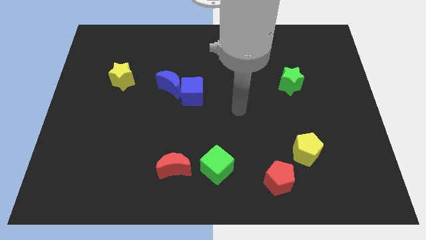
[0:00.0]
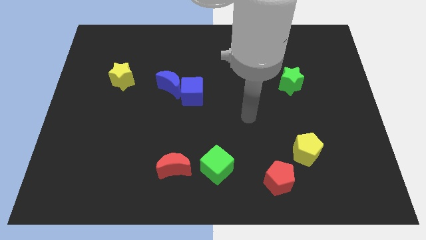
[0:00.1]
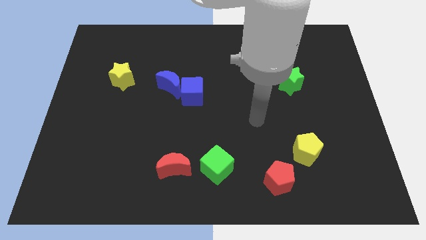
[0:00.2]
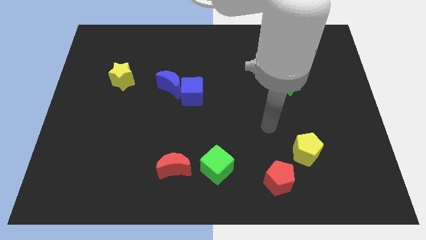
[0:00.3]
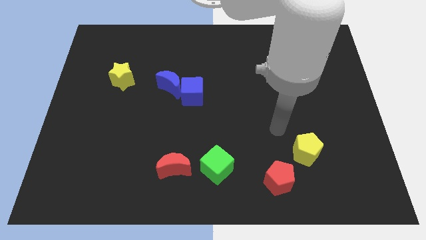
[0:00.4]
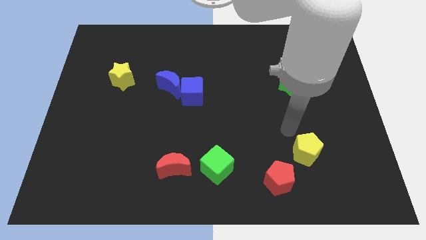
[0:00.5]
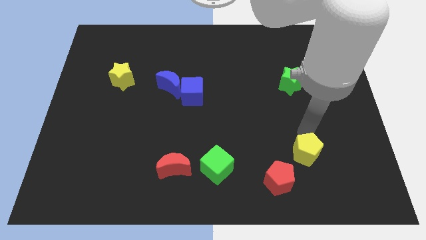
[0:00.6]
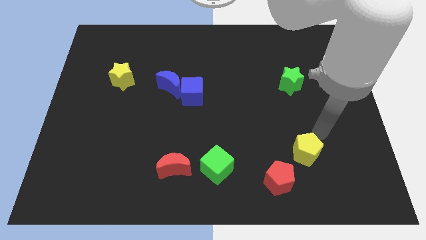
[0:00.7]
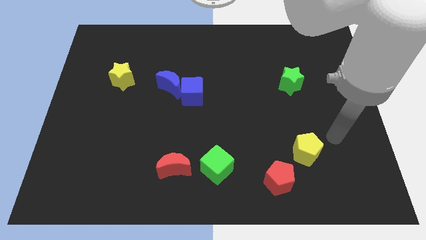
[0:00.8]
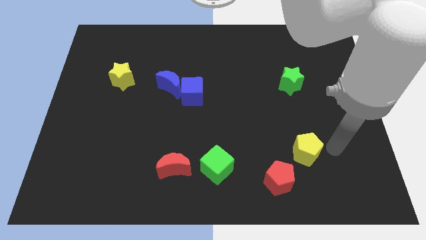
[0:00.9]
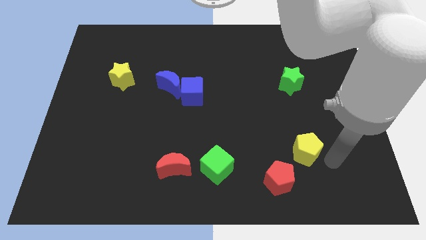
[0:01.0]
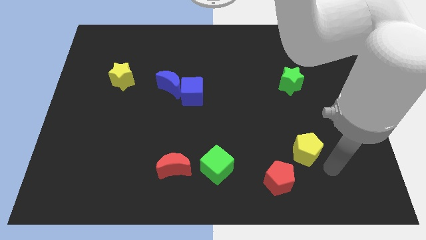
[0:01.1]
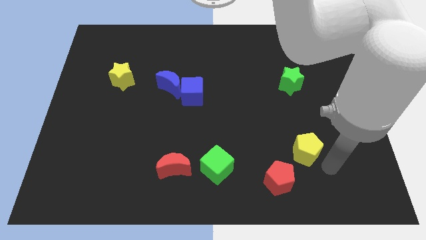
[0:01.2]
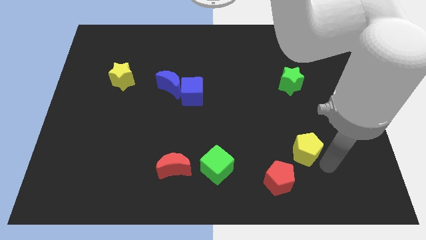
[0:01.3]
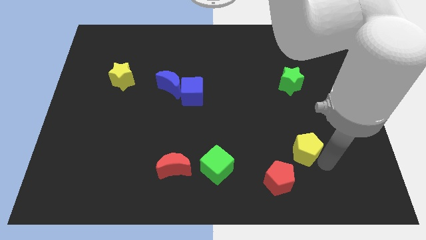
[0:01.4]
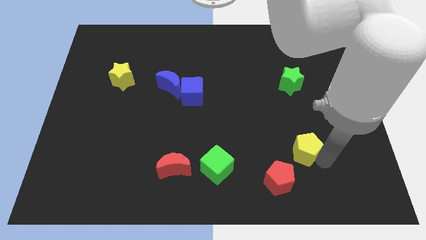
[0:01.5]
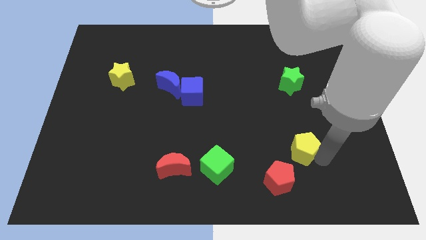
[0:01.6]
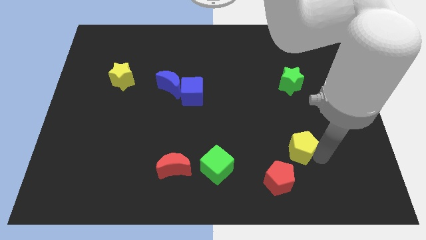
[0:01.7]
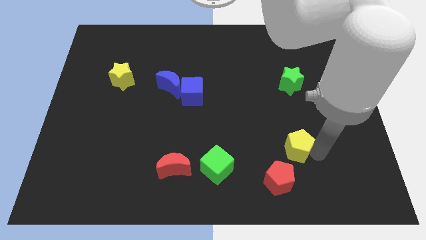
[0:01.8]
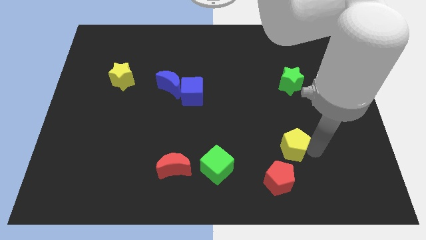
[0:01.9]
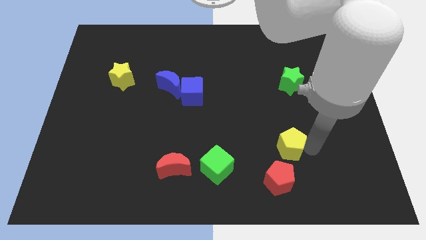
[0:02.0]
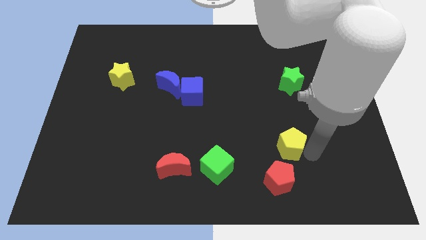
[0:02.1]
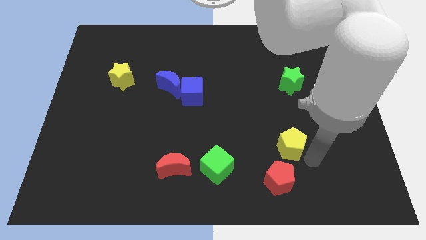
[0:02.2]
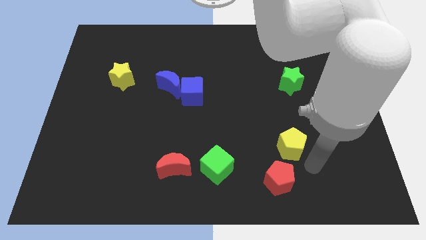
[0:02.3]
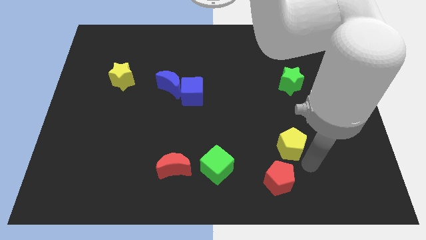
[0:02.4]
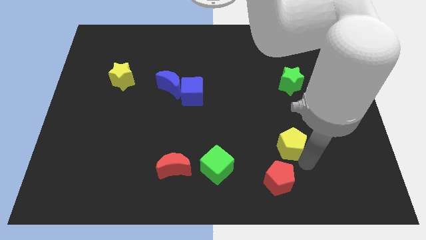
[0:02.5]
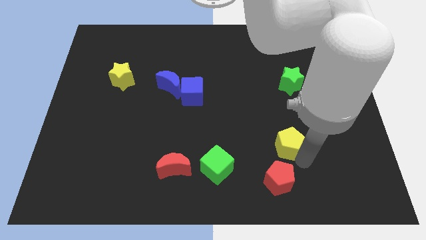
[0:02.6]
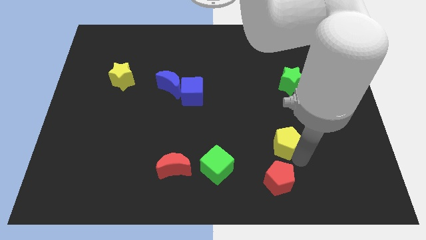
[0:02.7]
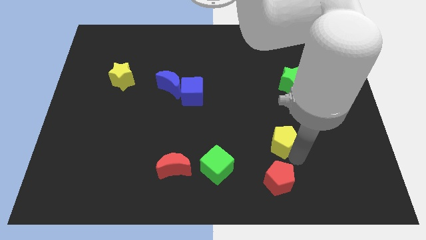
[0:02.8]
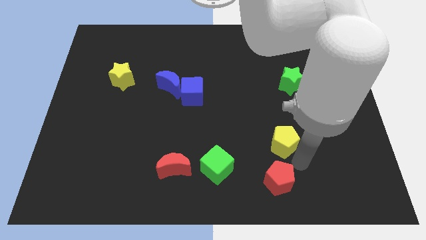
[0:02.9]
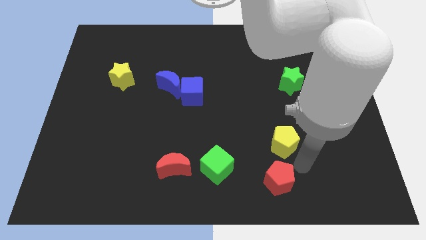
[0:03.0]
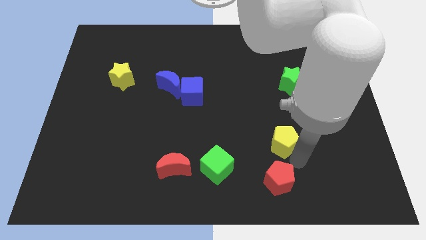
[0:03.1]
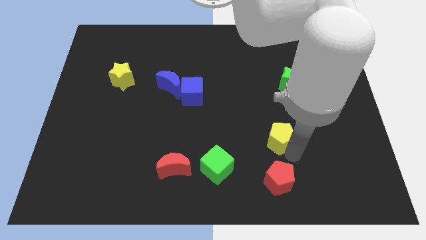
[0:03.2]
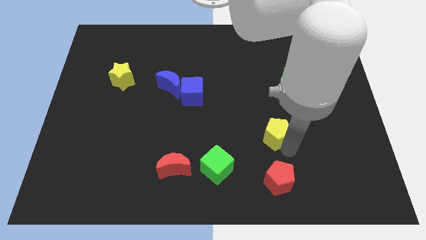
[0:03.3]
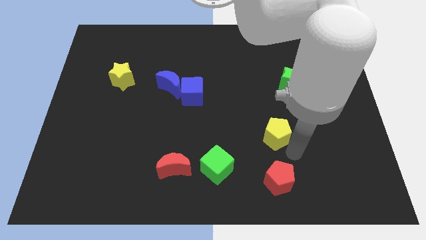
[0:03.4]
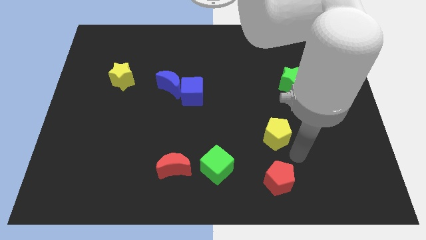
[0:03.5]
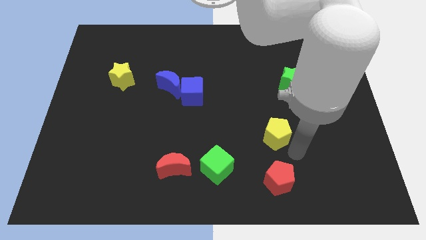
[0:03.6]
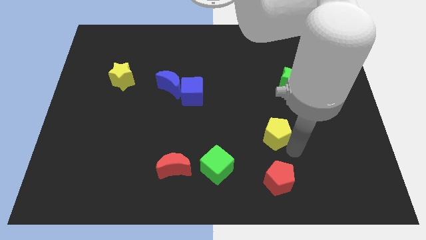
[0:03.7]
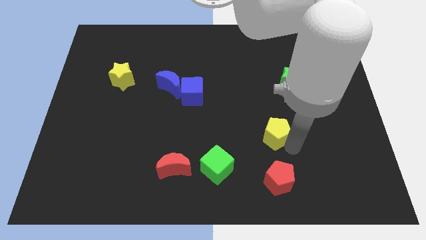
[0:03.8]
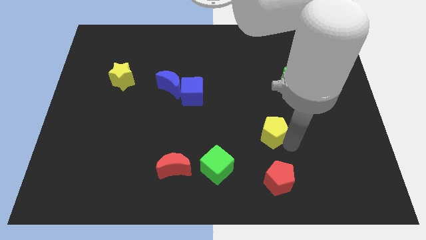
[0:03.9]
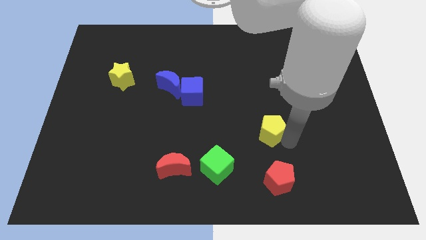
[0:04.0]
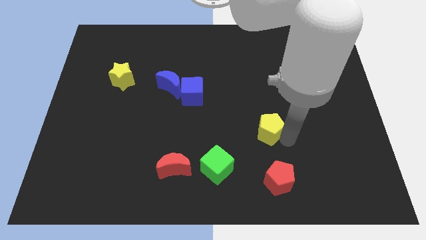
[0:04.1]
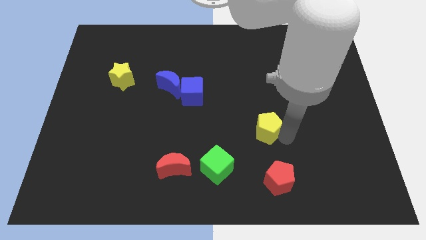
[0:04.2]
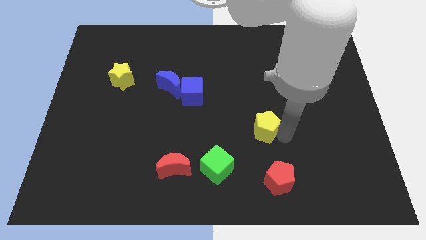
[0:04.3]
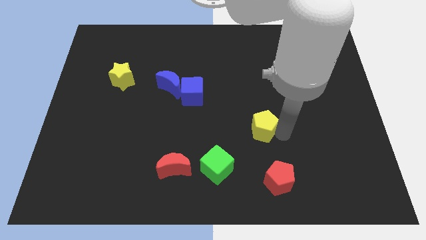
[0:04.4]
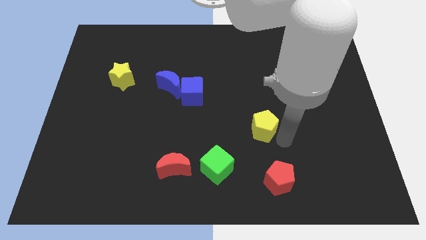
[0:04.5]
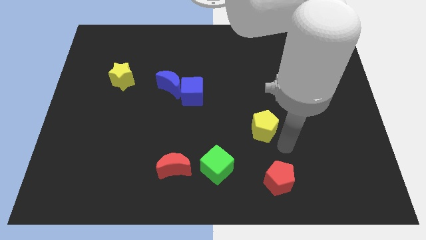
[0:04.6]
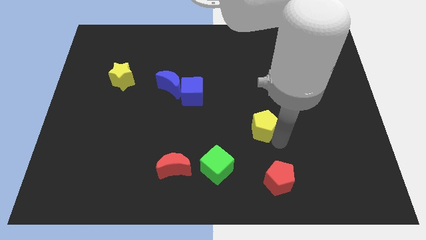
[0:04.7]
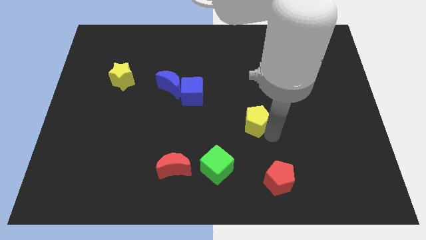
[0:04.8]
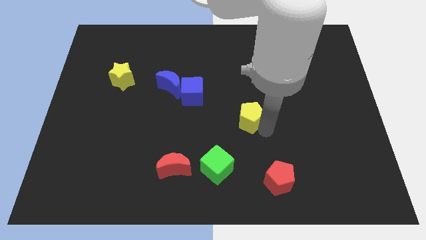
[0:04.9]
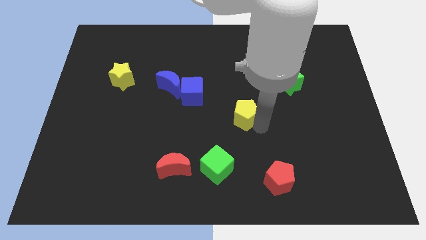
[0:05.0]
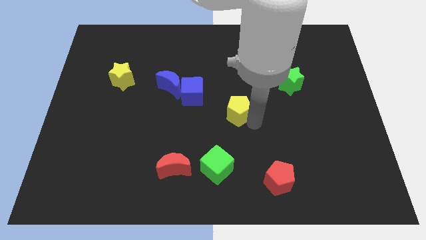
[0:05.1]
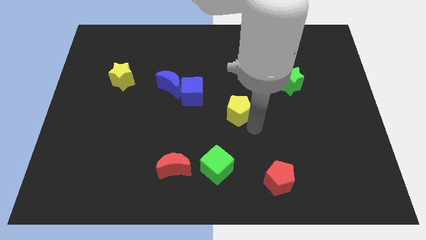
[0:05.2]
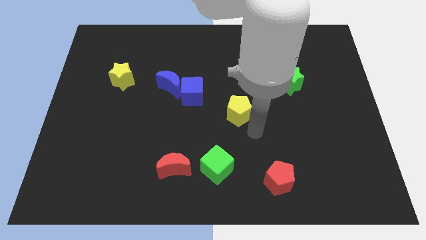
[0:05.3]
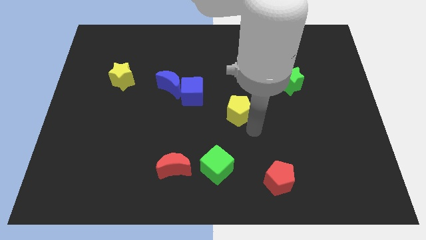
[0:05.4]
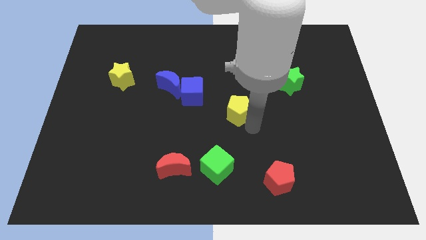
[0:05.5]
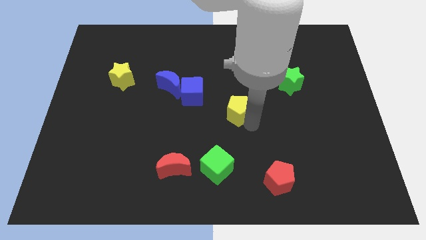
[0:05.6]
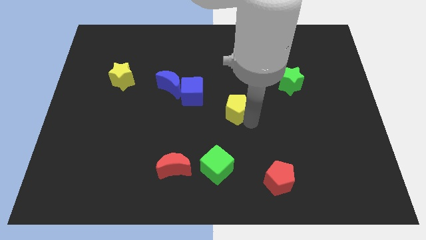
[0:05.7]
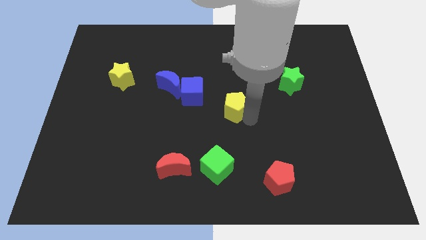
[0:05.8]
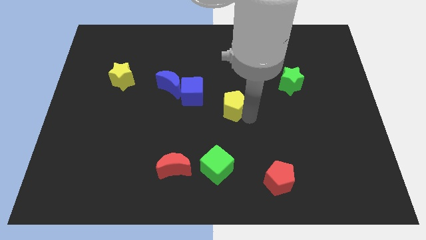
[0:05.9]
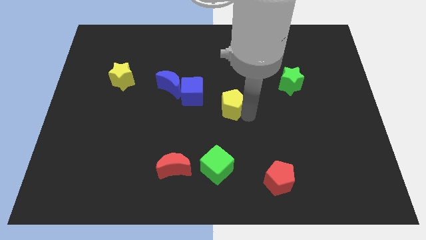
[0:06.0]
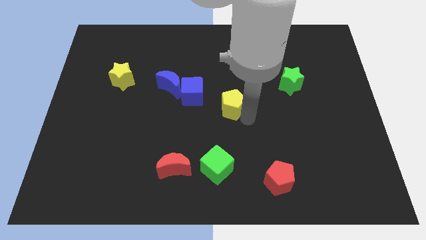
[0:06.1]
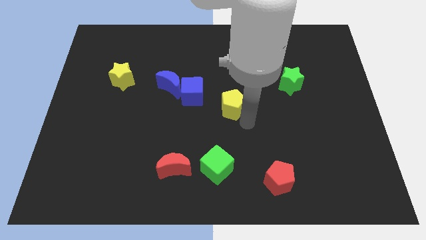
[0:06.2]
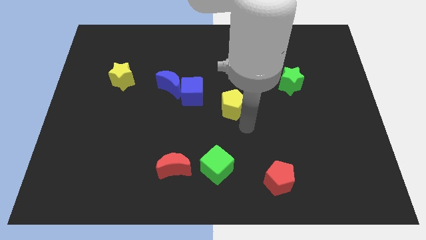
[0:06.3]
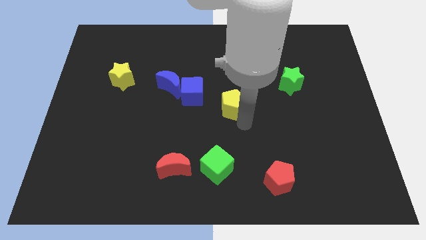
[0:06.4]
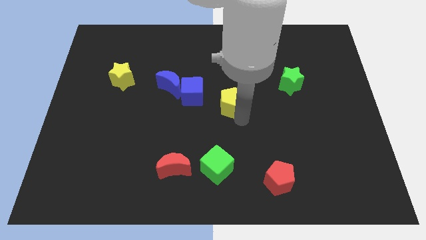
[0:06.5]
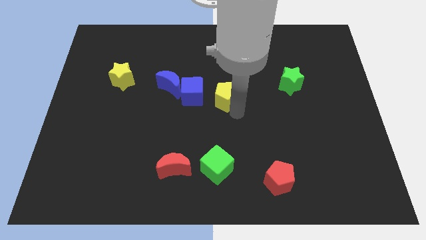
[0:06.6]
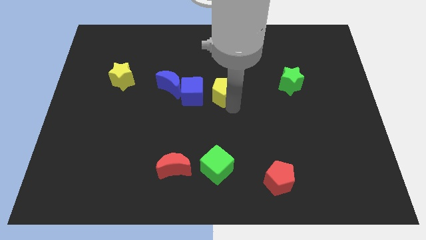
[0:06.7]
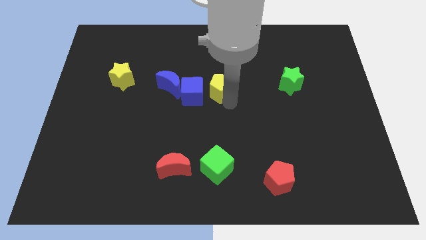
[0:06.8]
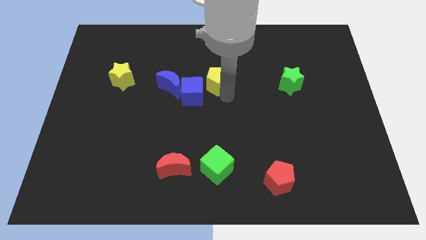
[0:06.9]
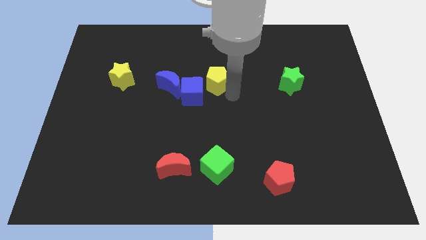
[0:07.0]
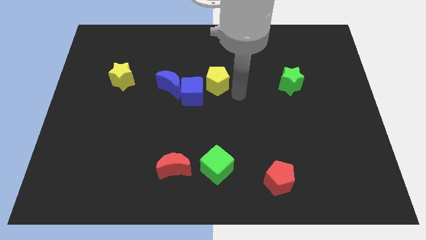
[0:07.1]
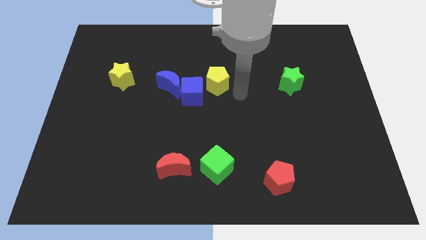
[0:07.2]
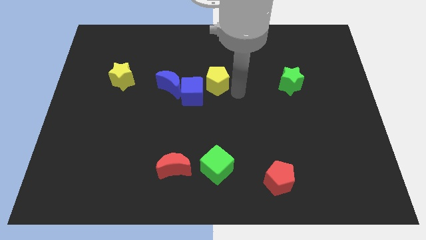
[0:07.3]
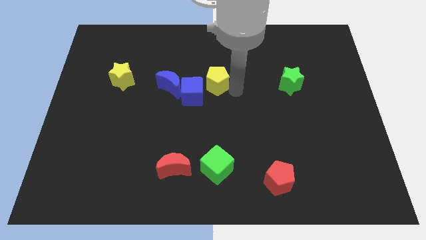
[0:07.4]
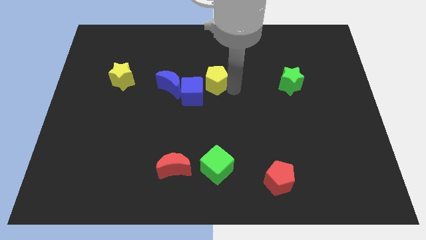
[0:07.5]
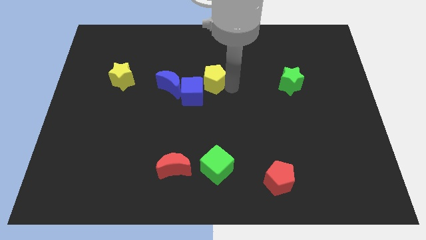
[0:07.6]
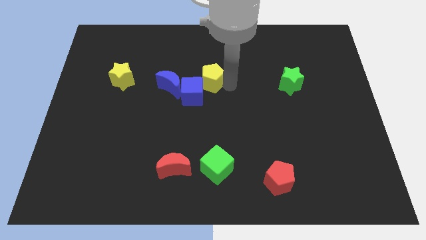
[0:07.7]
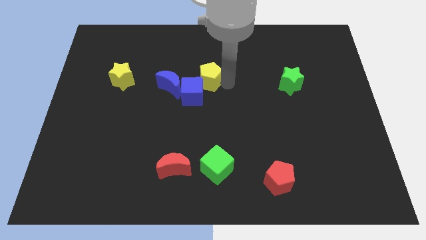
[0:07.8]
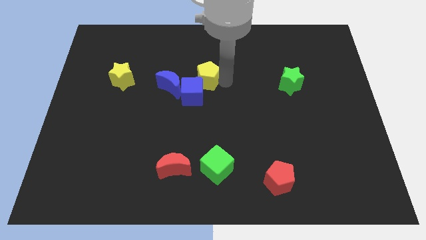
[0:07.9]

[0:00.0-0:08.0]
put the yellow pentagon to the top right side of the blue moon
